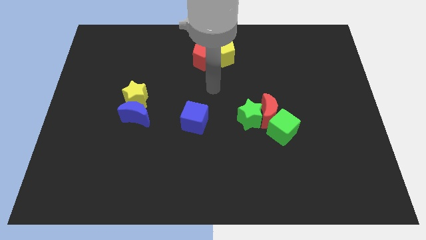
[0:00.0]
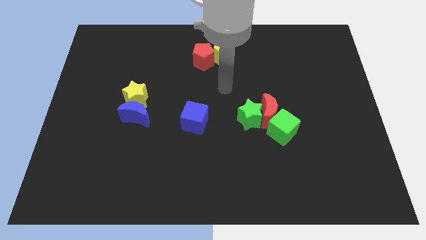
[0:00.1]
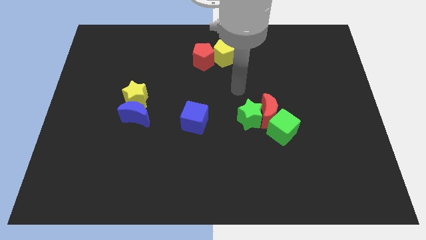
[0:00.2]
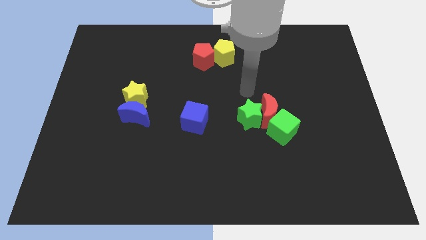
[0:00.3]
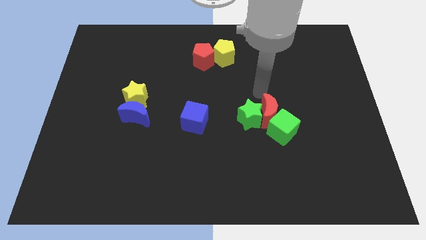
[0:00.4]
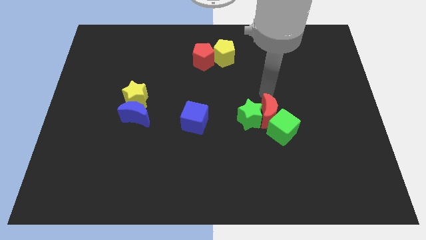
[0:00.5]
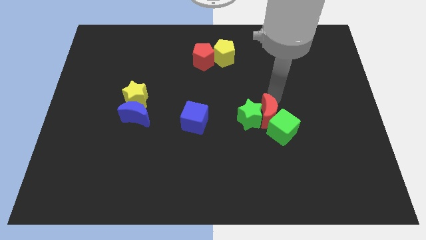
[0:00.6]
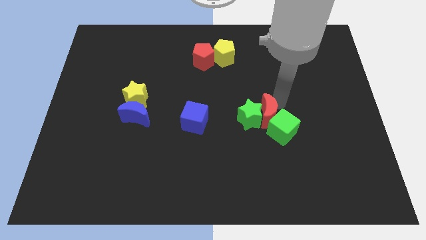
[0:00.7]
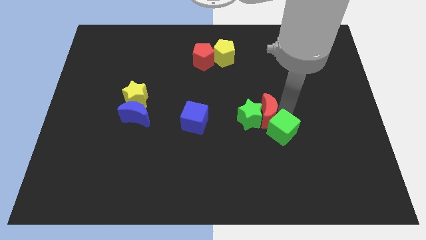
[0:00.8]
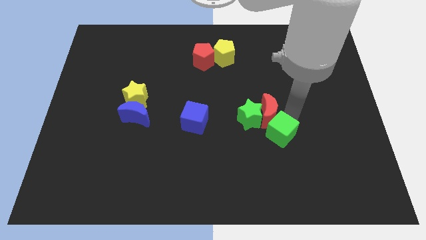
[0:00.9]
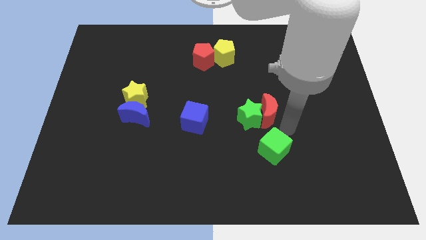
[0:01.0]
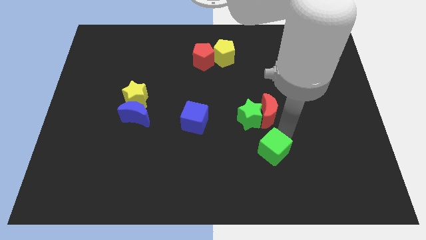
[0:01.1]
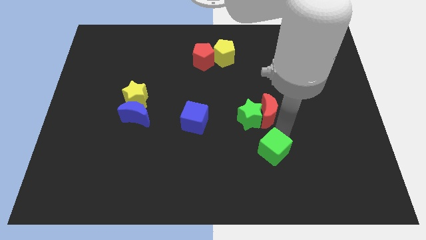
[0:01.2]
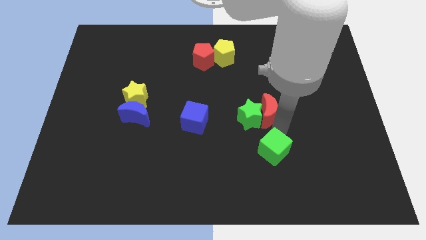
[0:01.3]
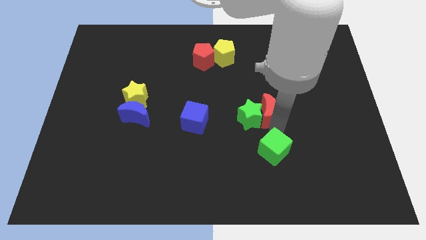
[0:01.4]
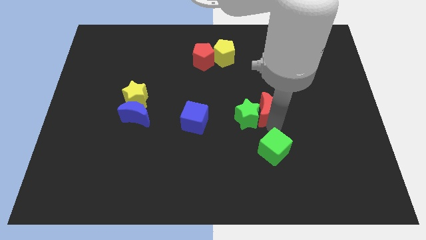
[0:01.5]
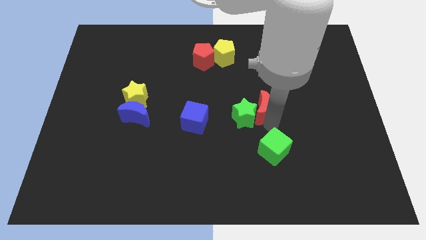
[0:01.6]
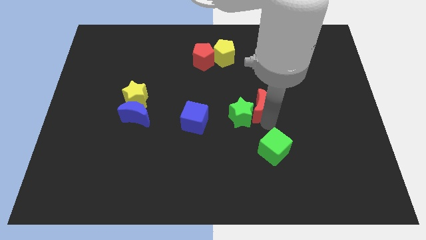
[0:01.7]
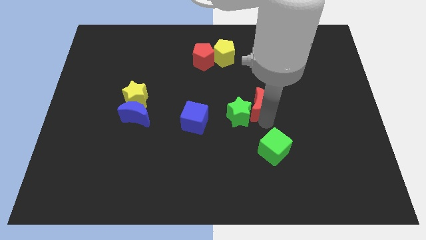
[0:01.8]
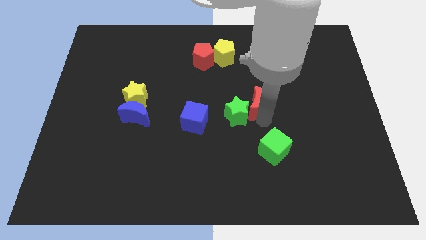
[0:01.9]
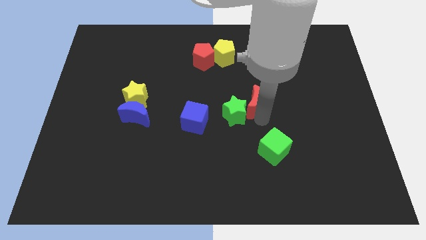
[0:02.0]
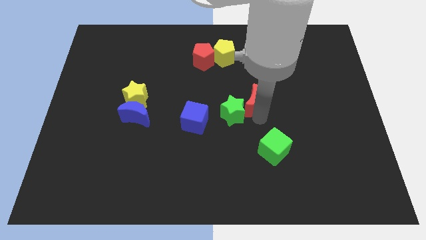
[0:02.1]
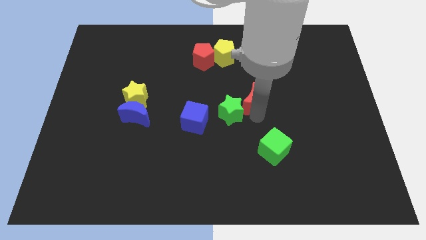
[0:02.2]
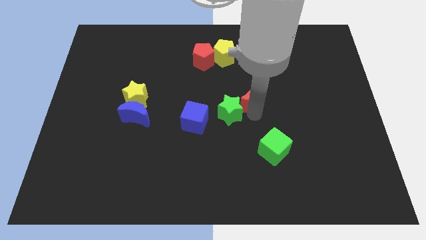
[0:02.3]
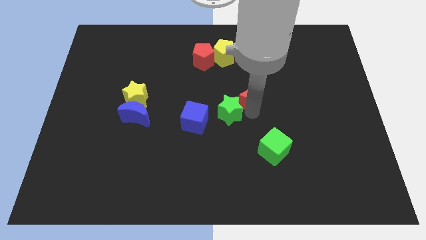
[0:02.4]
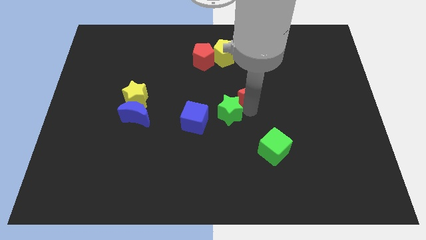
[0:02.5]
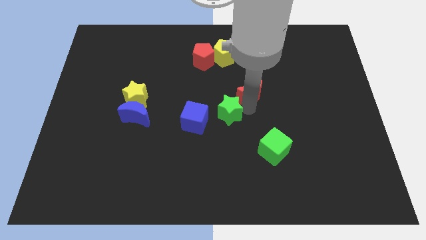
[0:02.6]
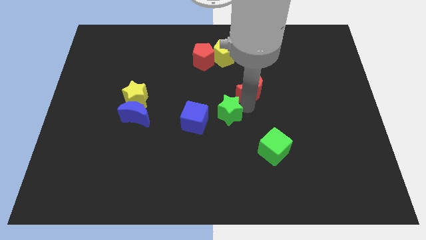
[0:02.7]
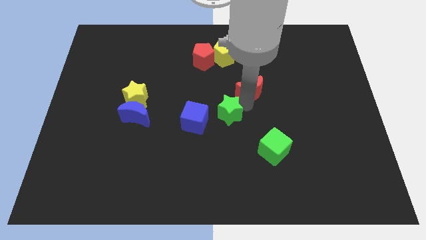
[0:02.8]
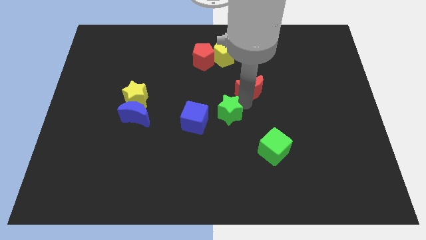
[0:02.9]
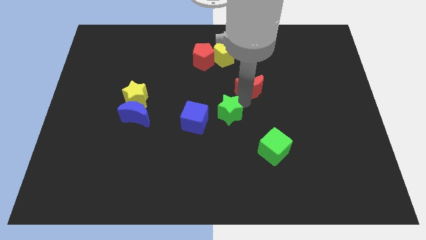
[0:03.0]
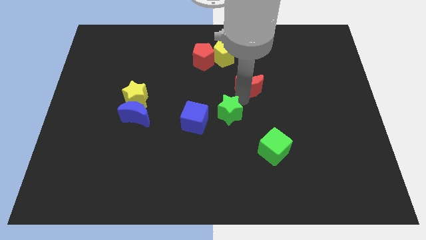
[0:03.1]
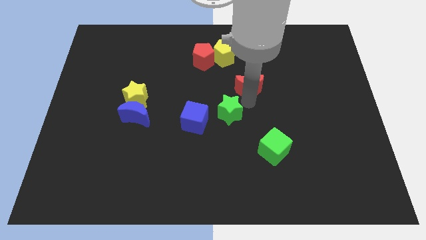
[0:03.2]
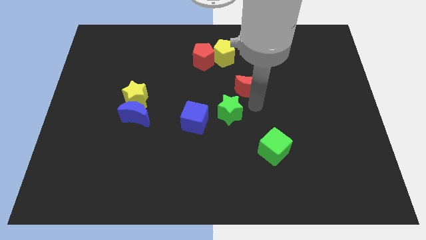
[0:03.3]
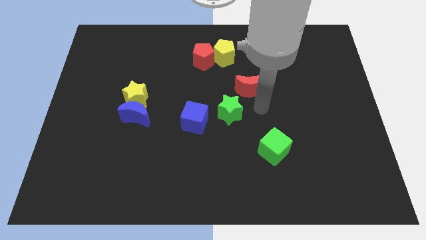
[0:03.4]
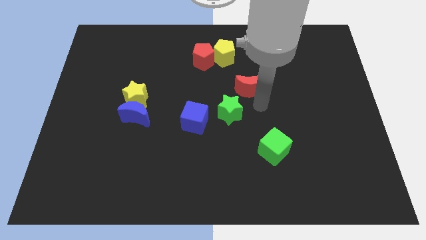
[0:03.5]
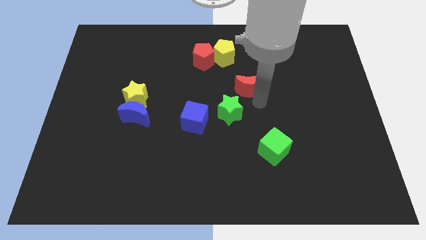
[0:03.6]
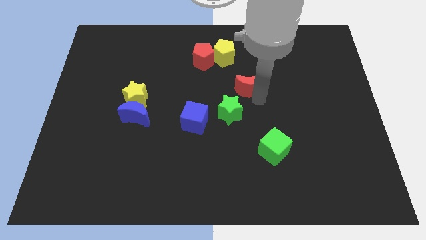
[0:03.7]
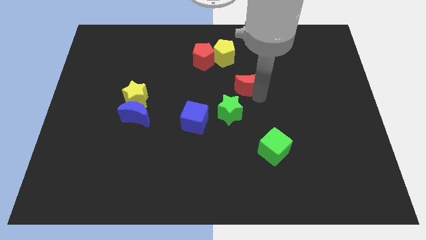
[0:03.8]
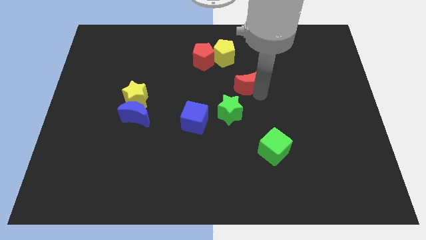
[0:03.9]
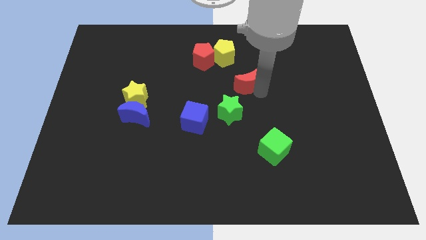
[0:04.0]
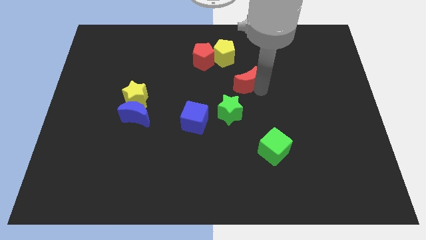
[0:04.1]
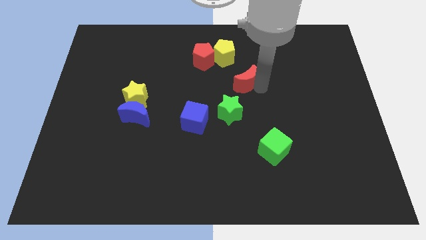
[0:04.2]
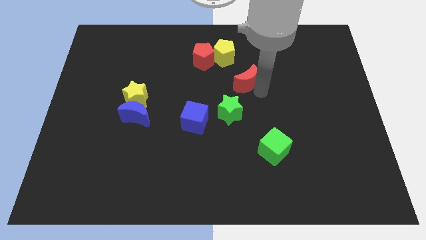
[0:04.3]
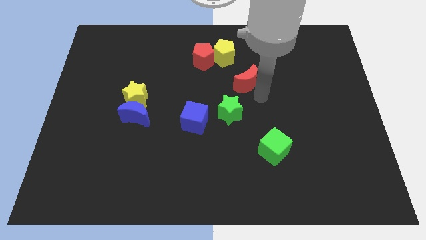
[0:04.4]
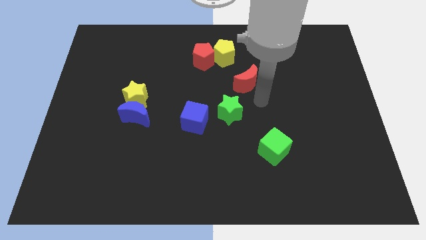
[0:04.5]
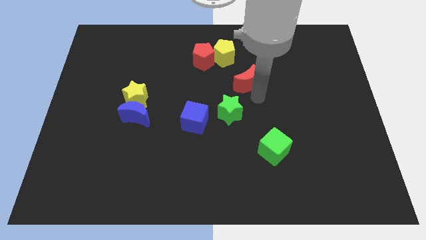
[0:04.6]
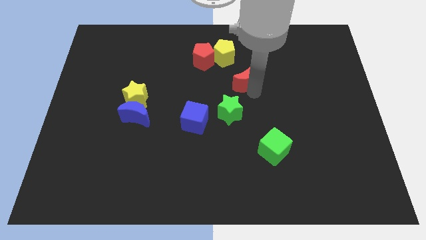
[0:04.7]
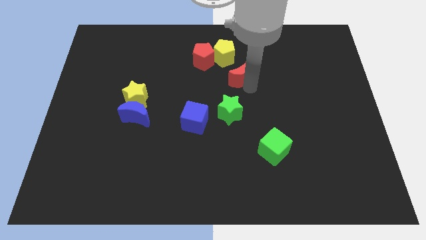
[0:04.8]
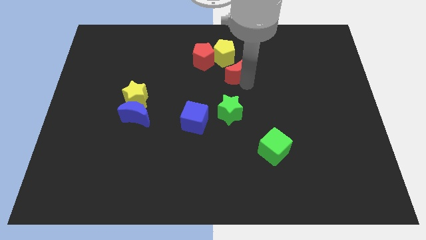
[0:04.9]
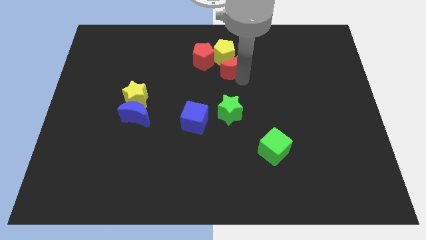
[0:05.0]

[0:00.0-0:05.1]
slide the red moon to the yellow pentagon

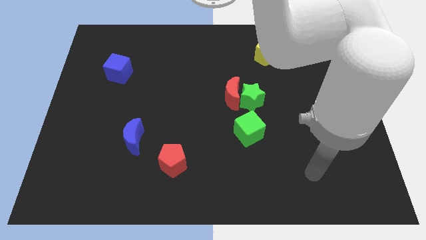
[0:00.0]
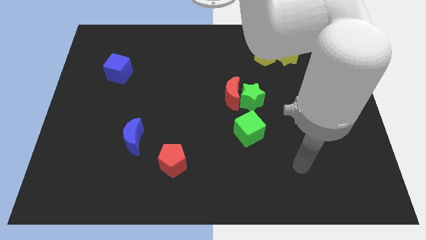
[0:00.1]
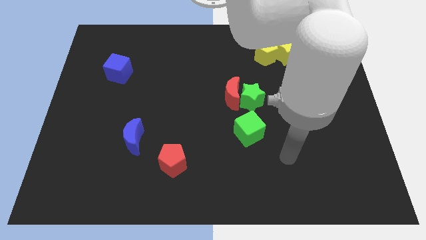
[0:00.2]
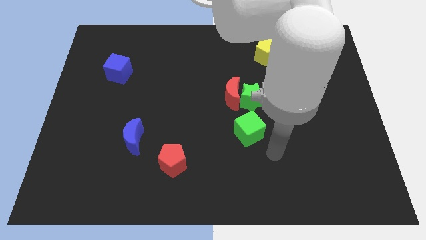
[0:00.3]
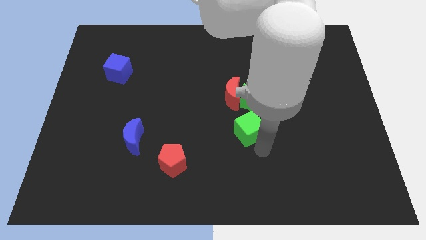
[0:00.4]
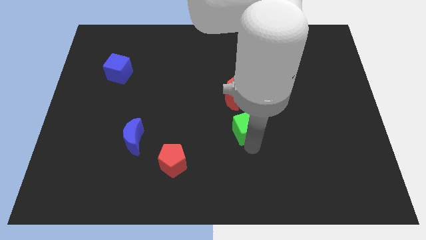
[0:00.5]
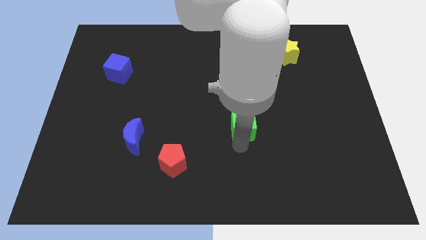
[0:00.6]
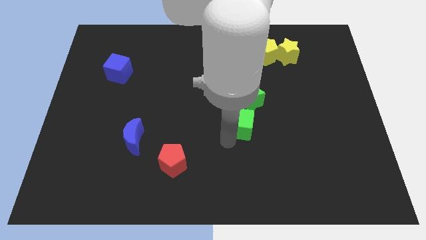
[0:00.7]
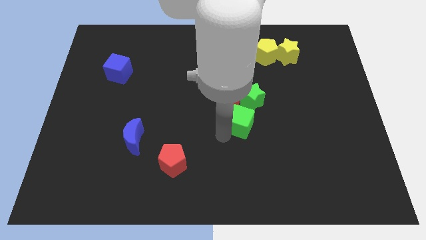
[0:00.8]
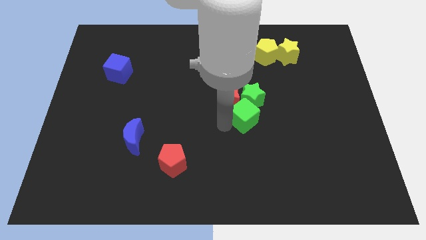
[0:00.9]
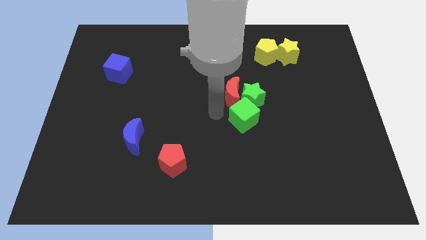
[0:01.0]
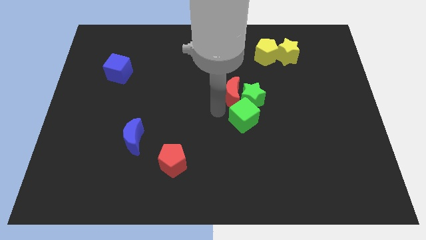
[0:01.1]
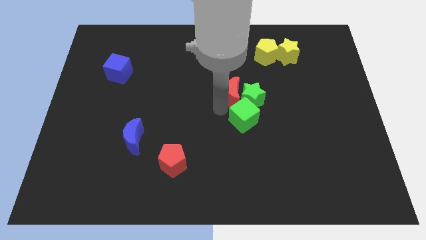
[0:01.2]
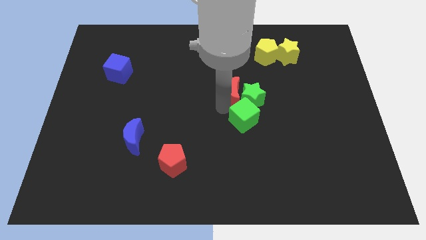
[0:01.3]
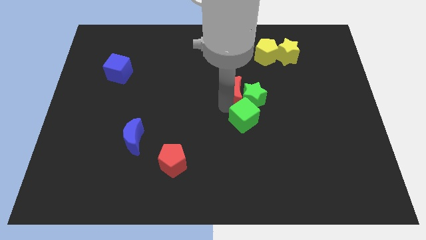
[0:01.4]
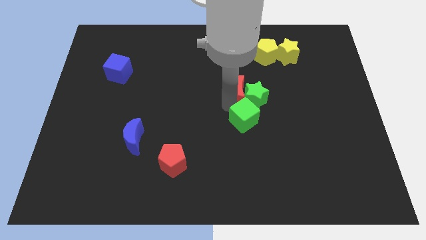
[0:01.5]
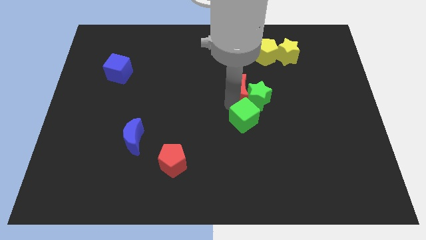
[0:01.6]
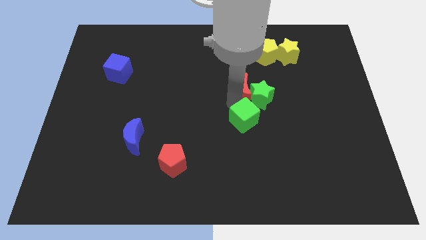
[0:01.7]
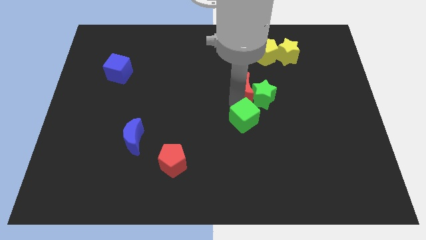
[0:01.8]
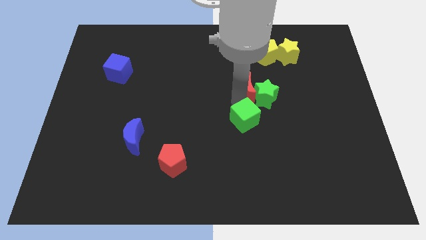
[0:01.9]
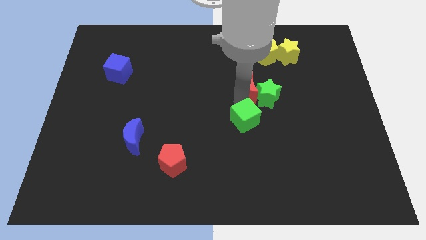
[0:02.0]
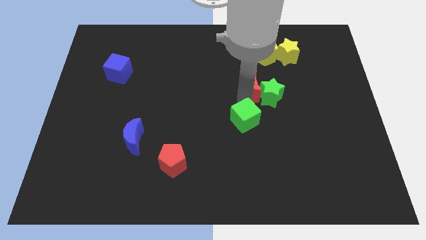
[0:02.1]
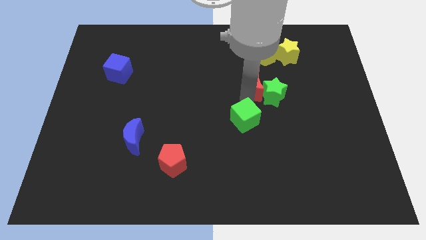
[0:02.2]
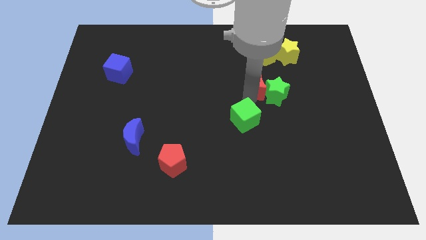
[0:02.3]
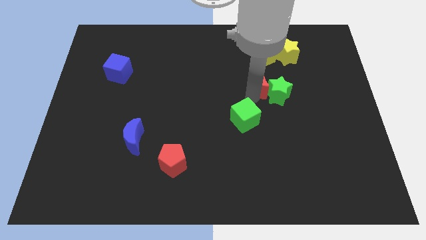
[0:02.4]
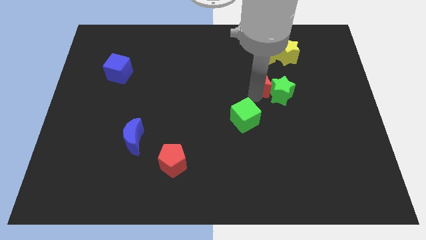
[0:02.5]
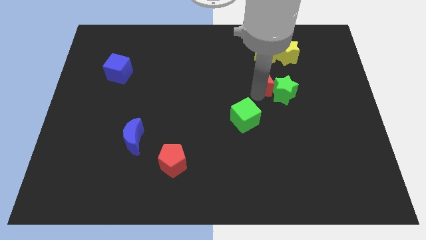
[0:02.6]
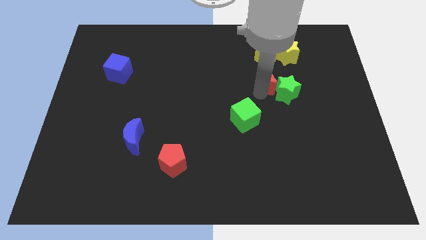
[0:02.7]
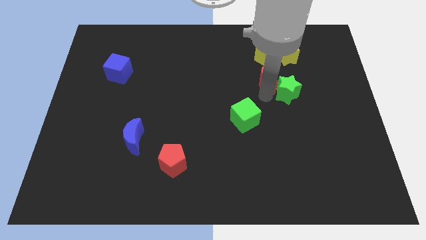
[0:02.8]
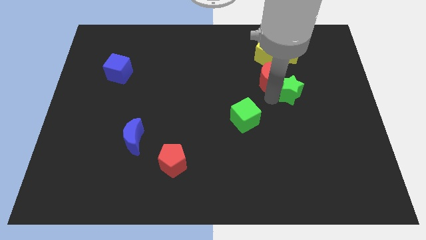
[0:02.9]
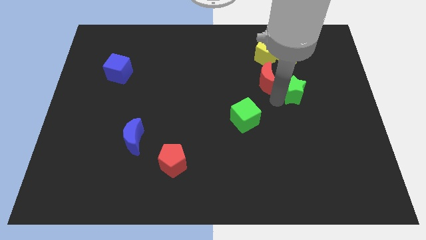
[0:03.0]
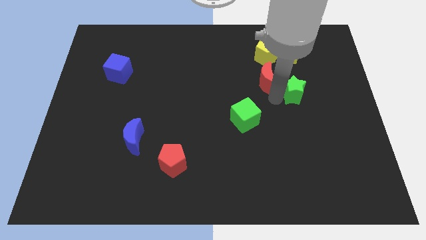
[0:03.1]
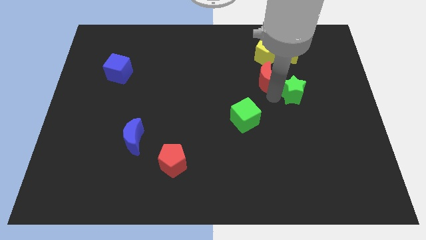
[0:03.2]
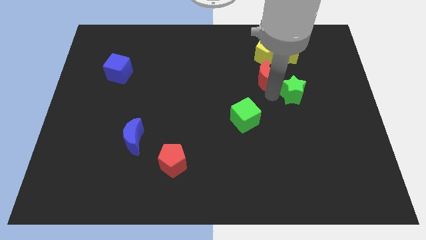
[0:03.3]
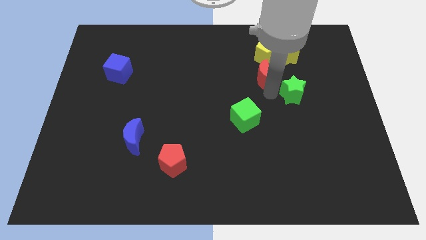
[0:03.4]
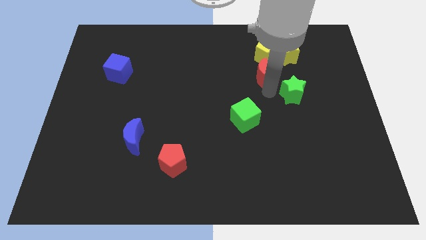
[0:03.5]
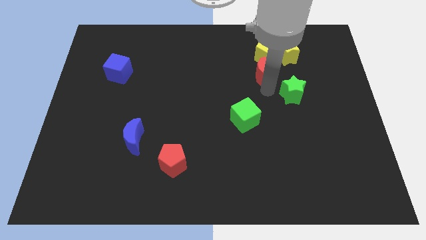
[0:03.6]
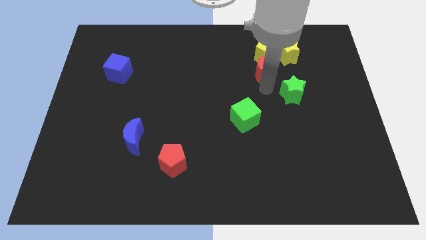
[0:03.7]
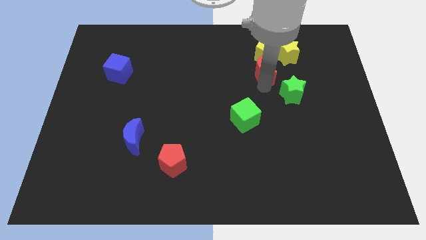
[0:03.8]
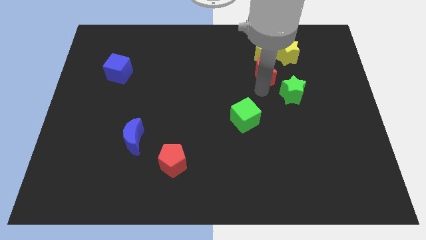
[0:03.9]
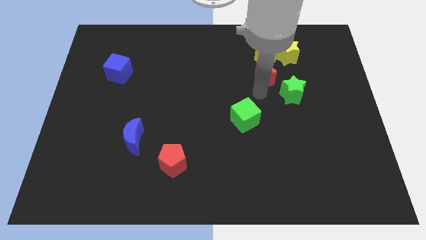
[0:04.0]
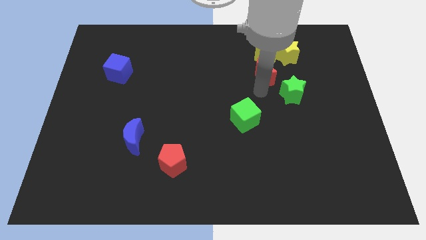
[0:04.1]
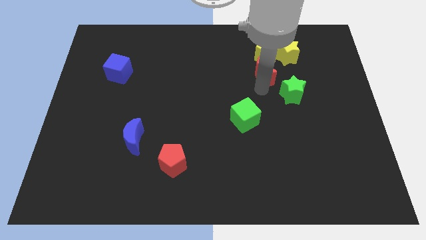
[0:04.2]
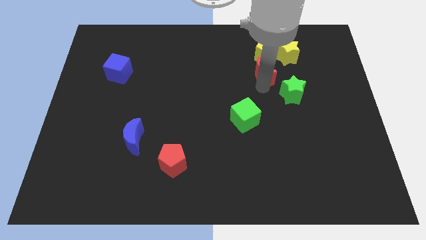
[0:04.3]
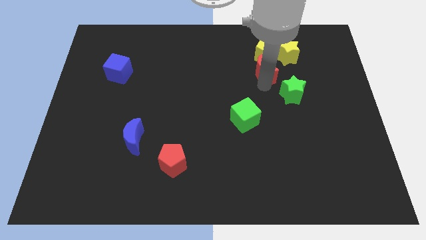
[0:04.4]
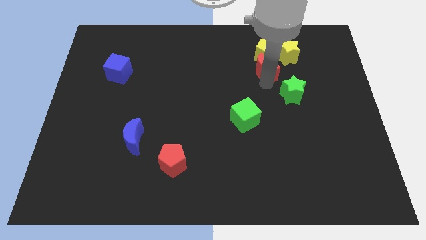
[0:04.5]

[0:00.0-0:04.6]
put the red moon towards the yellow pentagon
